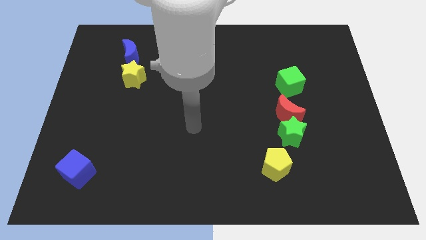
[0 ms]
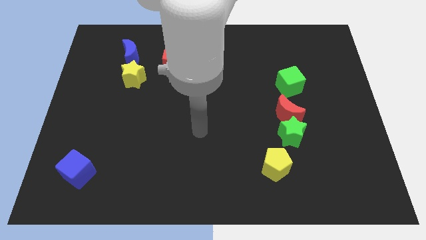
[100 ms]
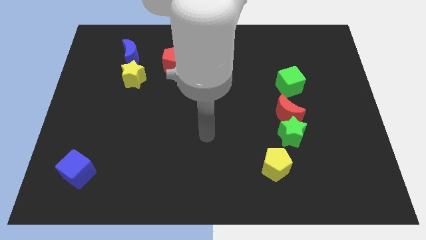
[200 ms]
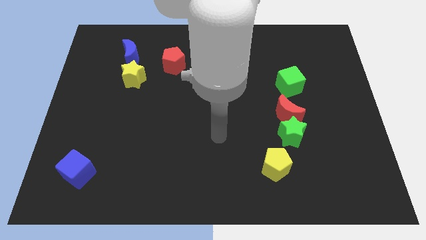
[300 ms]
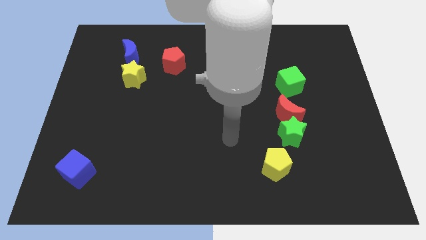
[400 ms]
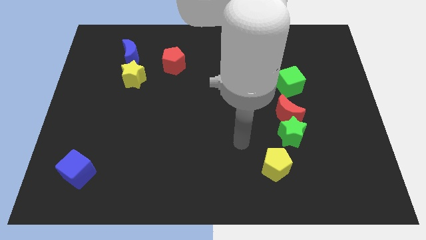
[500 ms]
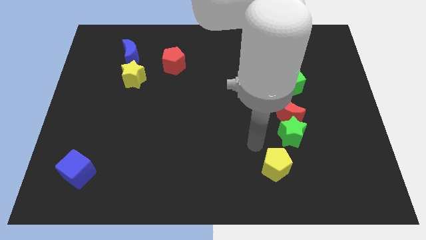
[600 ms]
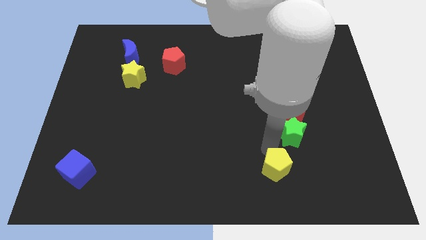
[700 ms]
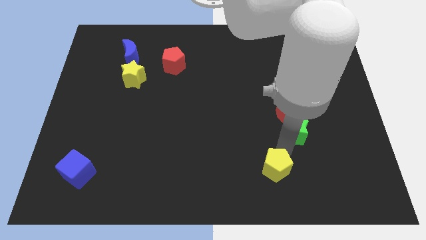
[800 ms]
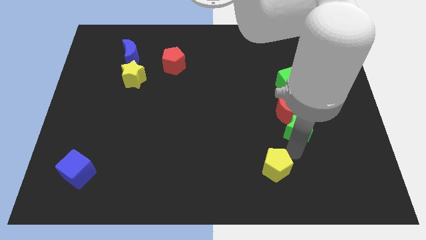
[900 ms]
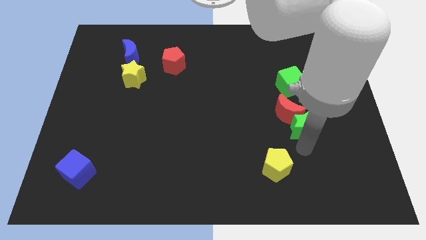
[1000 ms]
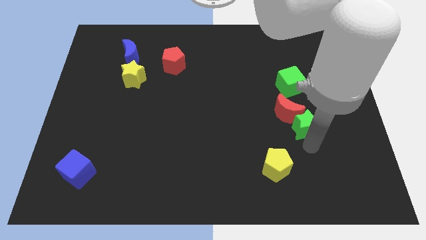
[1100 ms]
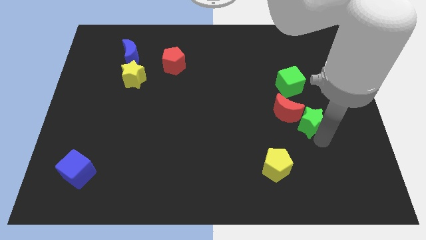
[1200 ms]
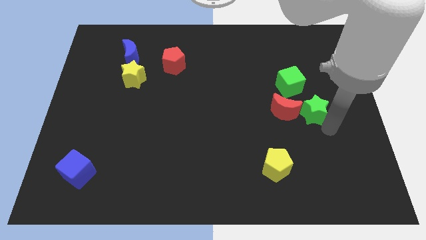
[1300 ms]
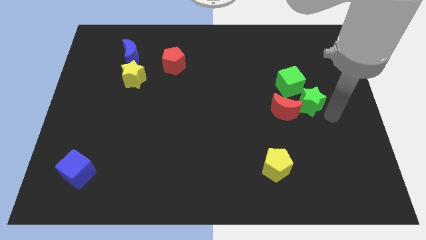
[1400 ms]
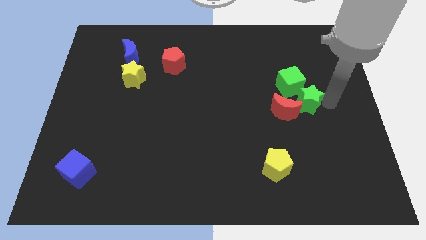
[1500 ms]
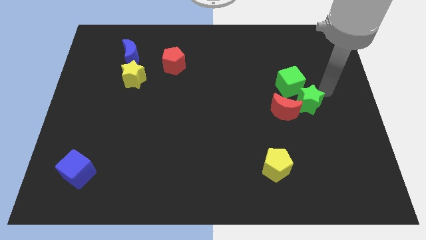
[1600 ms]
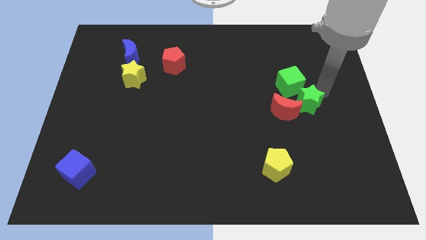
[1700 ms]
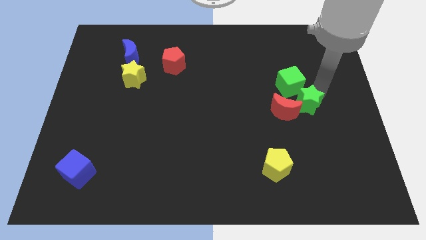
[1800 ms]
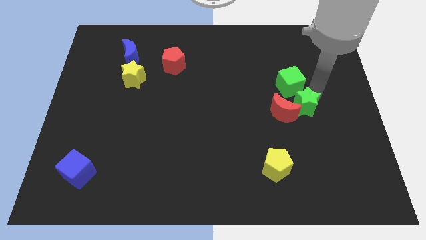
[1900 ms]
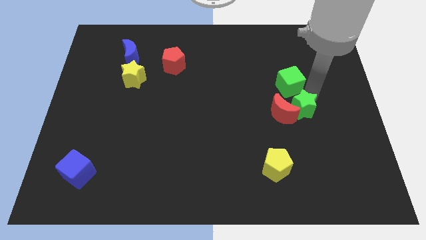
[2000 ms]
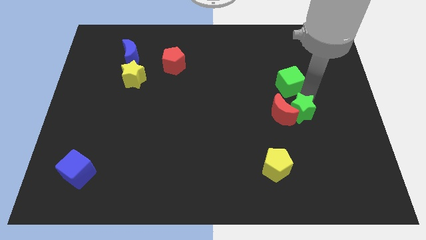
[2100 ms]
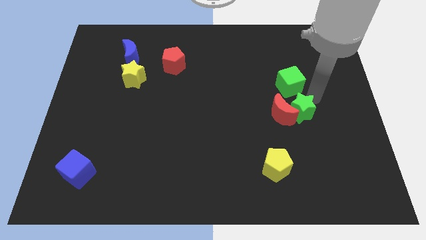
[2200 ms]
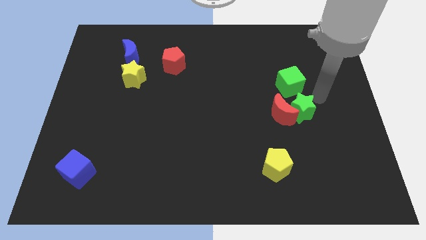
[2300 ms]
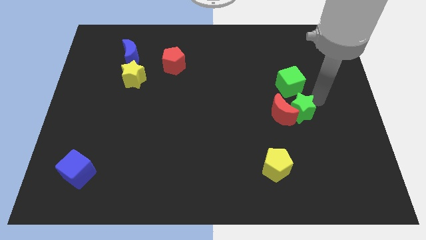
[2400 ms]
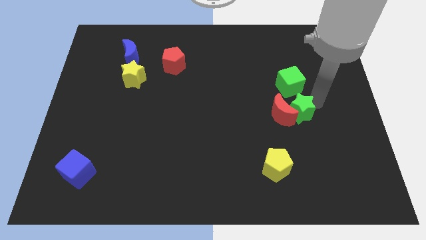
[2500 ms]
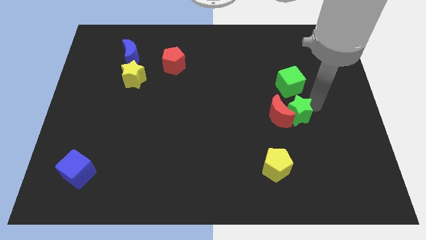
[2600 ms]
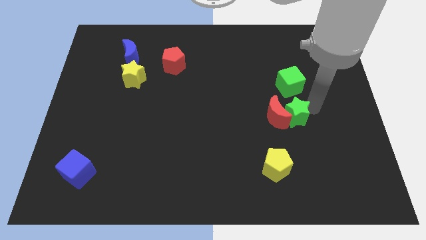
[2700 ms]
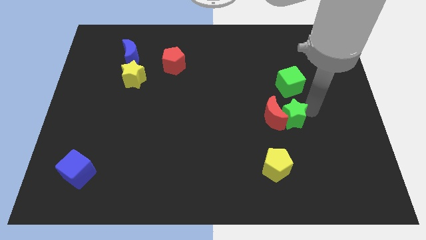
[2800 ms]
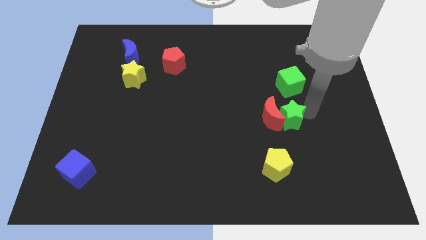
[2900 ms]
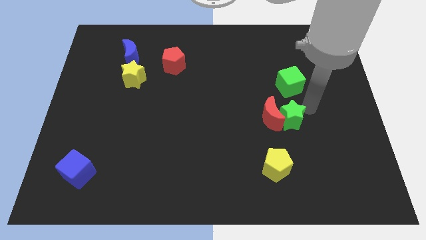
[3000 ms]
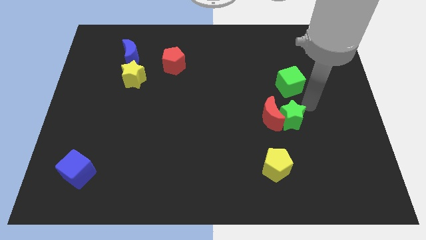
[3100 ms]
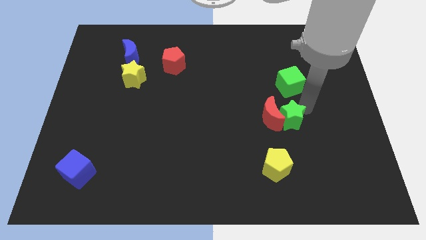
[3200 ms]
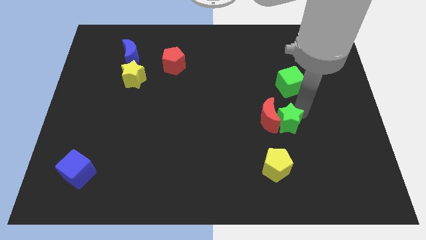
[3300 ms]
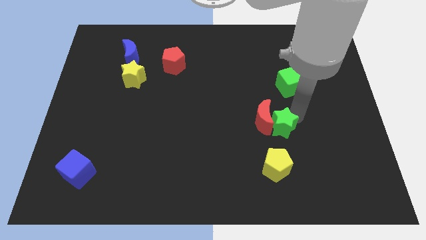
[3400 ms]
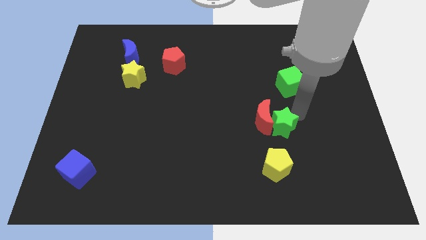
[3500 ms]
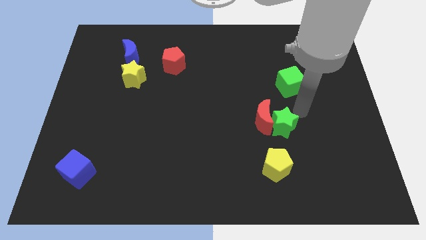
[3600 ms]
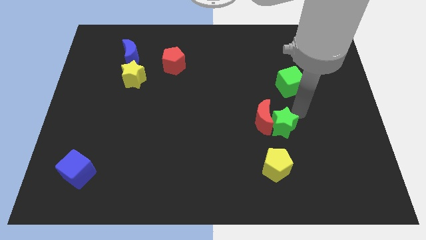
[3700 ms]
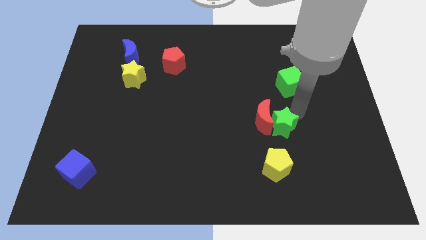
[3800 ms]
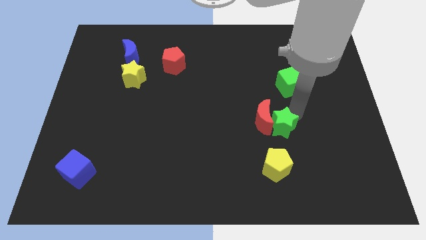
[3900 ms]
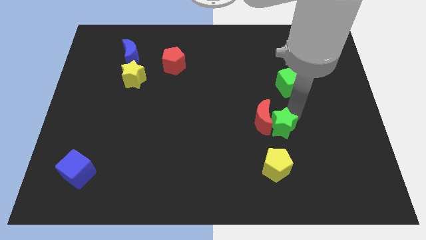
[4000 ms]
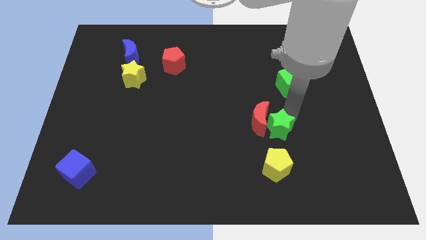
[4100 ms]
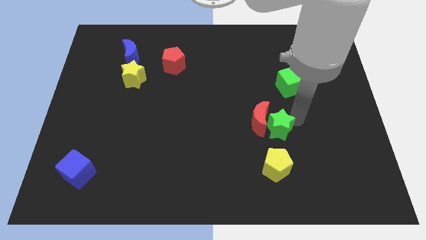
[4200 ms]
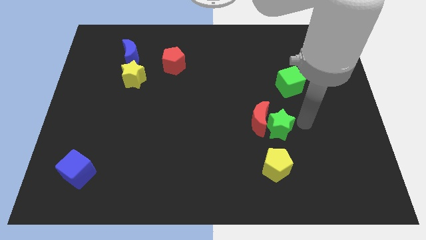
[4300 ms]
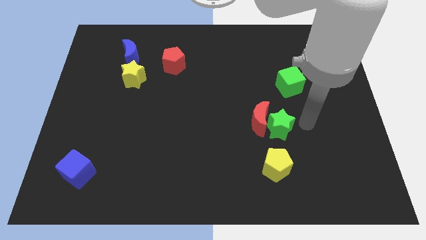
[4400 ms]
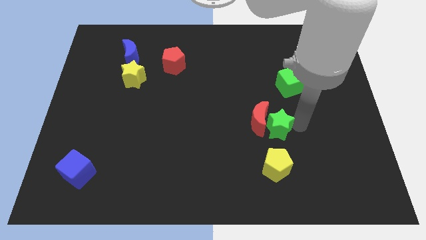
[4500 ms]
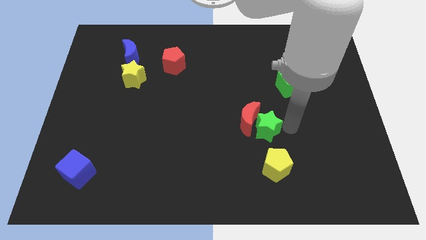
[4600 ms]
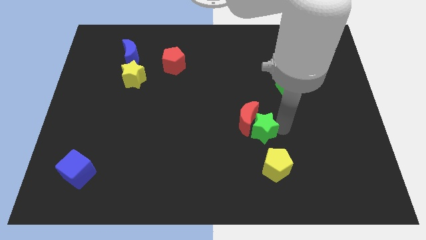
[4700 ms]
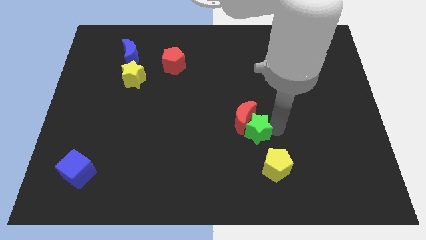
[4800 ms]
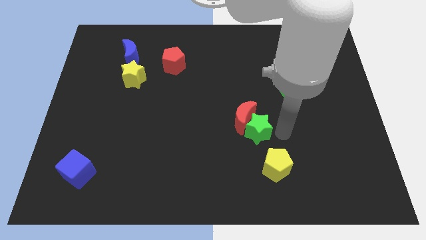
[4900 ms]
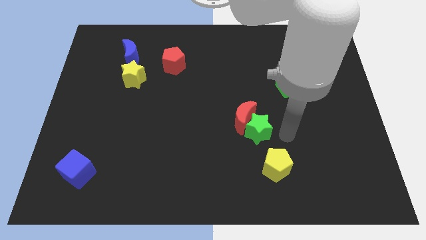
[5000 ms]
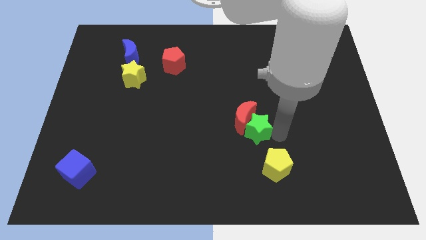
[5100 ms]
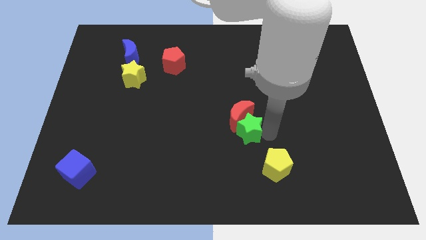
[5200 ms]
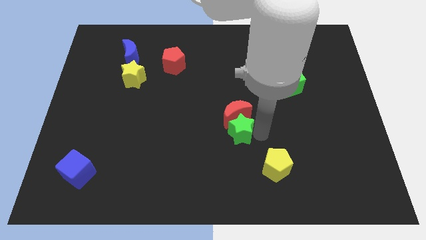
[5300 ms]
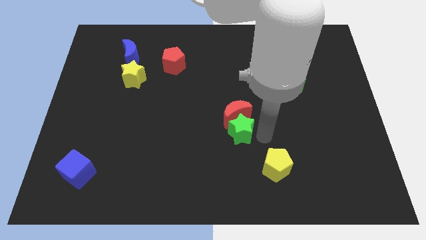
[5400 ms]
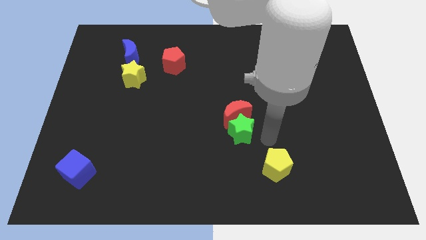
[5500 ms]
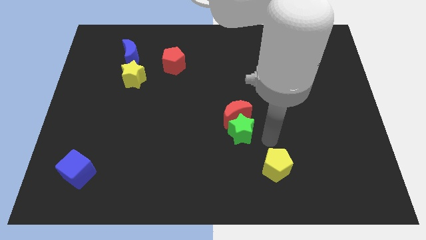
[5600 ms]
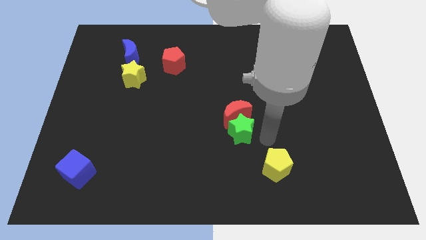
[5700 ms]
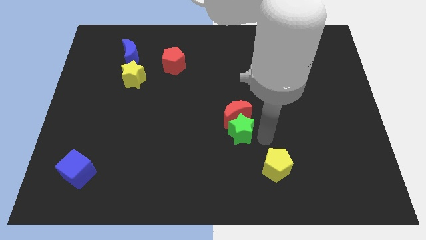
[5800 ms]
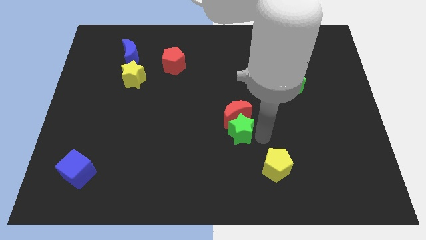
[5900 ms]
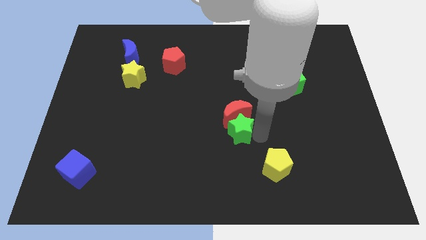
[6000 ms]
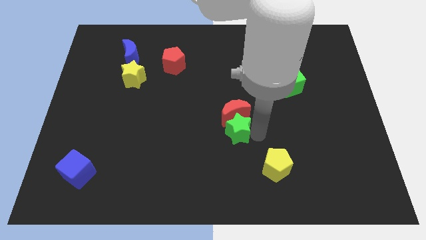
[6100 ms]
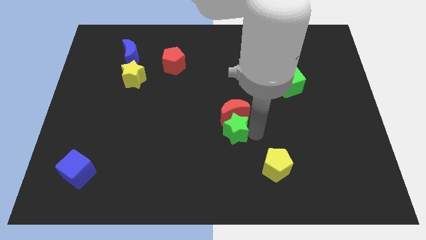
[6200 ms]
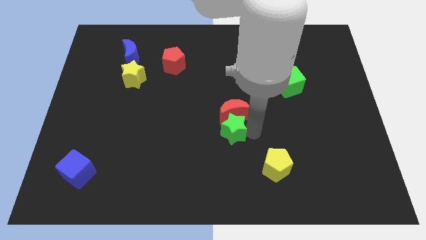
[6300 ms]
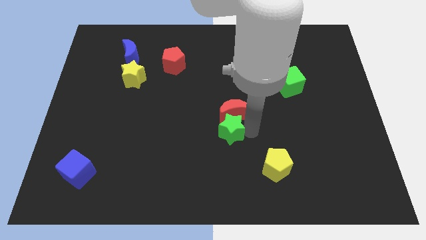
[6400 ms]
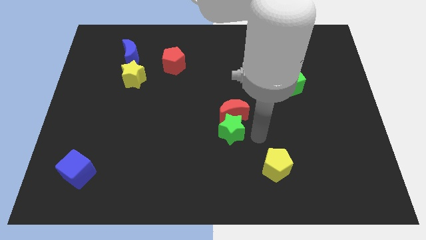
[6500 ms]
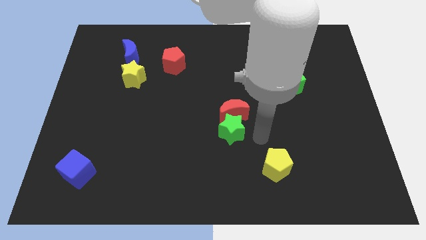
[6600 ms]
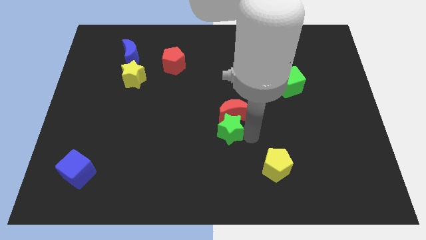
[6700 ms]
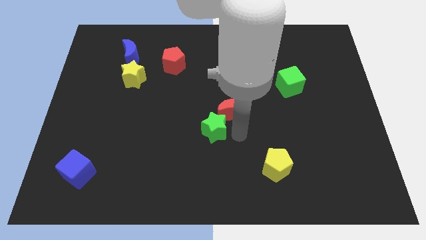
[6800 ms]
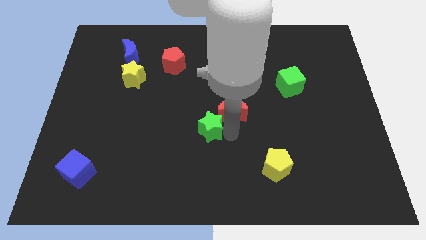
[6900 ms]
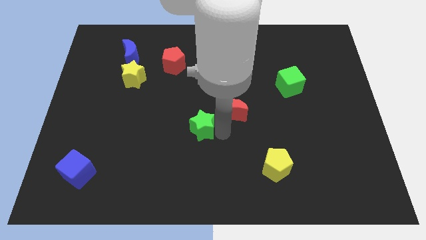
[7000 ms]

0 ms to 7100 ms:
slide the green star to the left

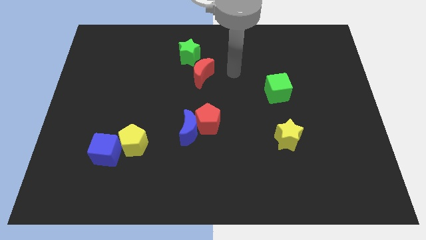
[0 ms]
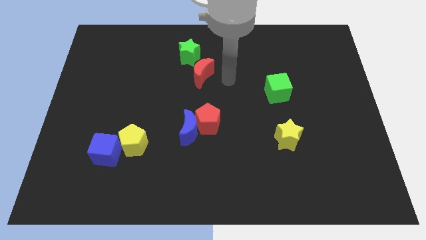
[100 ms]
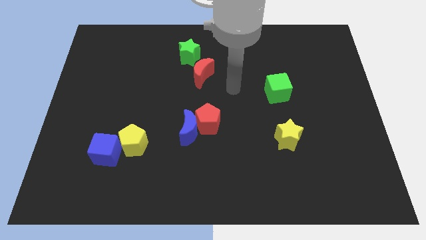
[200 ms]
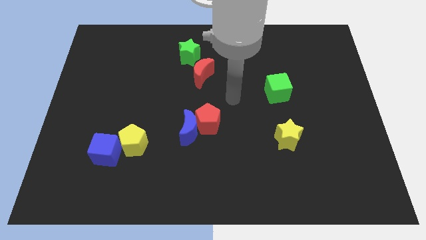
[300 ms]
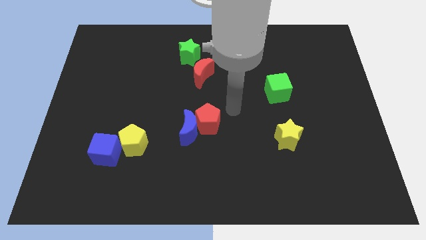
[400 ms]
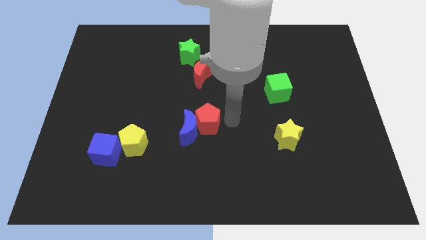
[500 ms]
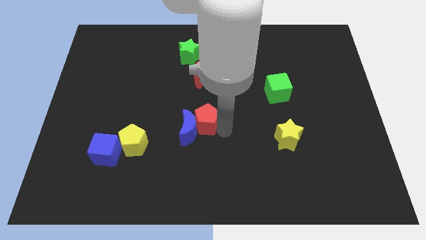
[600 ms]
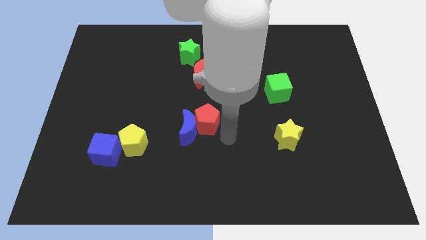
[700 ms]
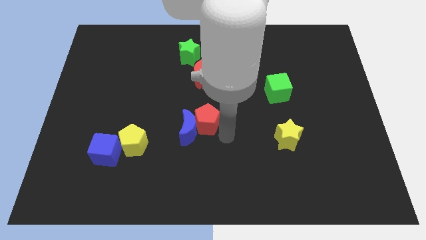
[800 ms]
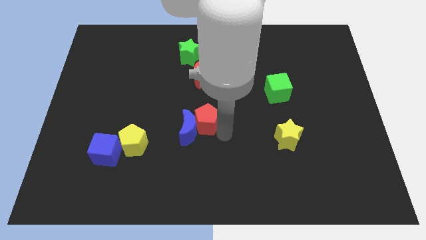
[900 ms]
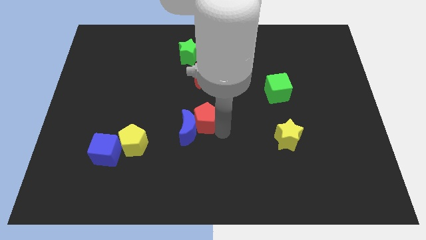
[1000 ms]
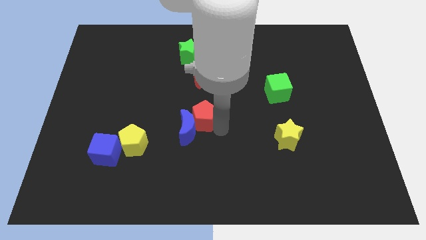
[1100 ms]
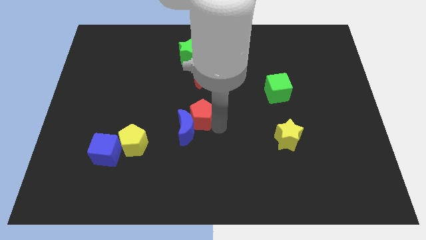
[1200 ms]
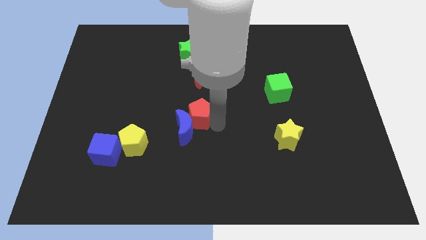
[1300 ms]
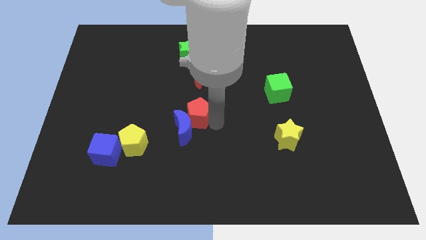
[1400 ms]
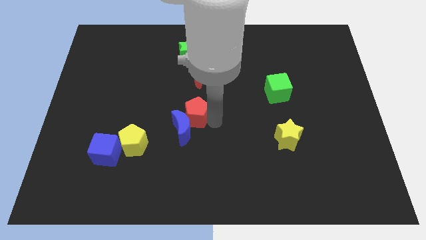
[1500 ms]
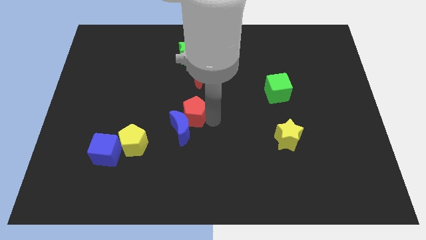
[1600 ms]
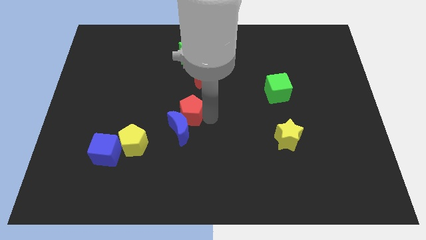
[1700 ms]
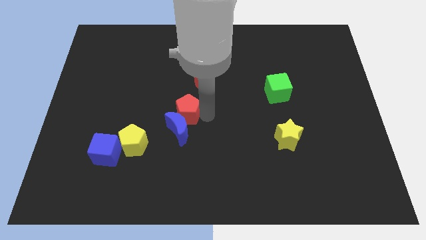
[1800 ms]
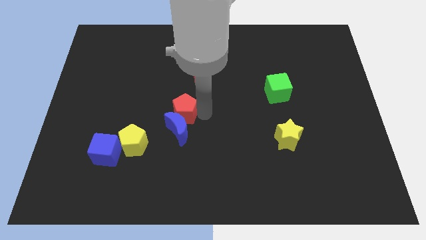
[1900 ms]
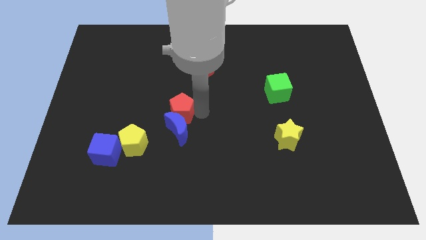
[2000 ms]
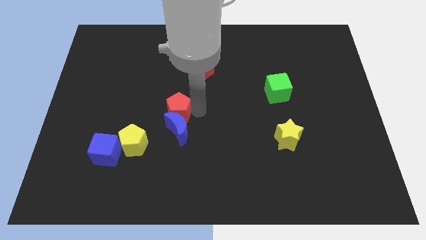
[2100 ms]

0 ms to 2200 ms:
slightly move the red pentagon upwards and then left
